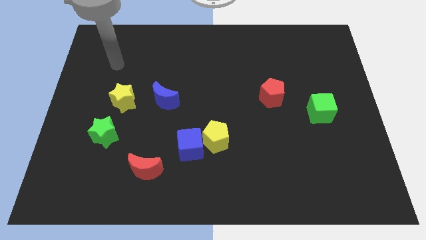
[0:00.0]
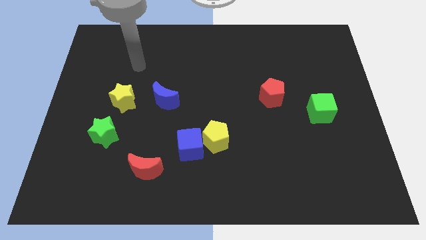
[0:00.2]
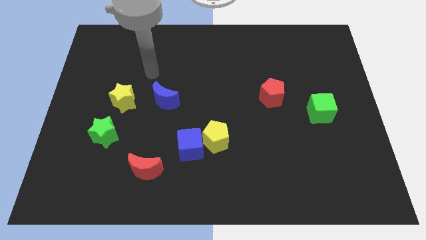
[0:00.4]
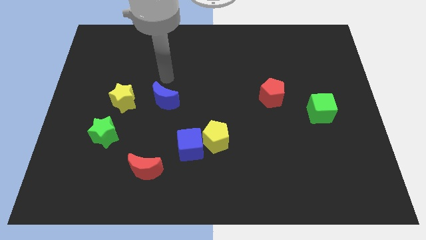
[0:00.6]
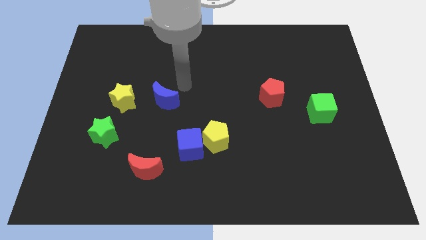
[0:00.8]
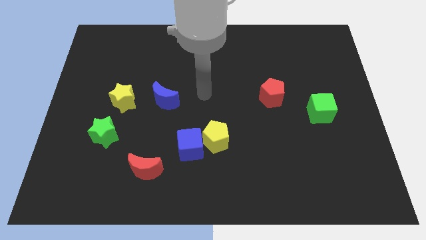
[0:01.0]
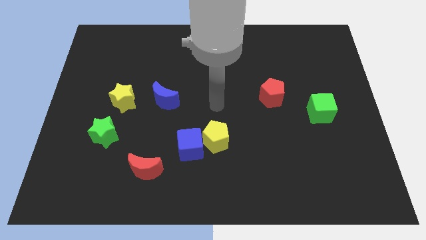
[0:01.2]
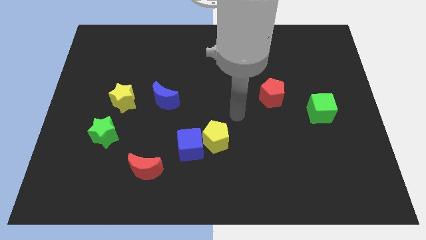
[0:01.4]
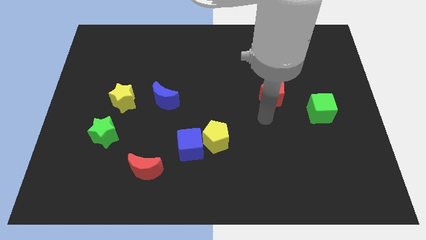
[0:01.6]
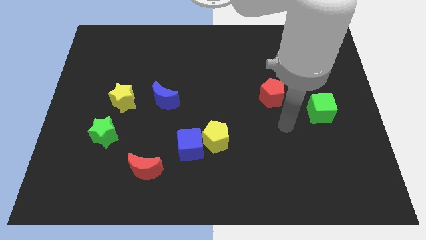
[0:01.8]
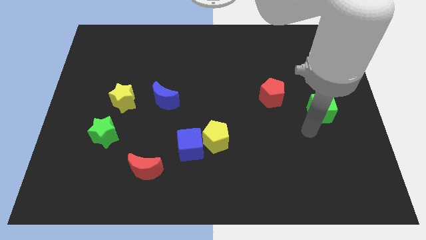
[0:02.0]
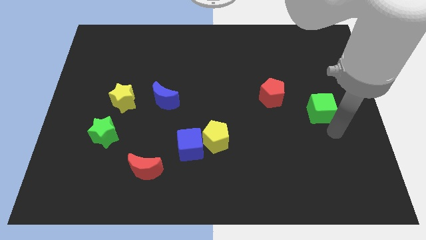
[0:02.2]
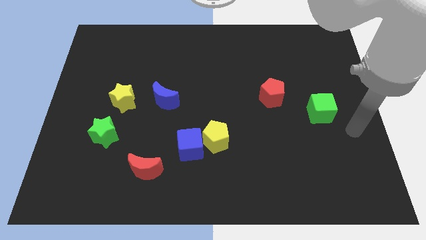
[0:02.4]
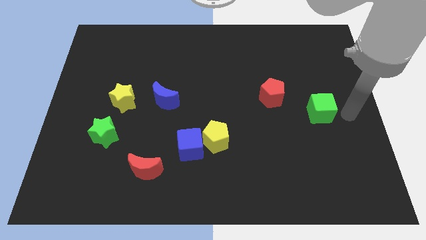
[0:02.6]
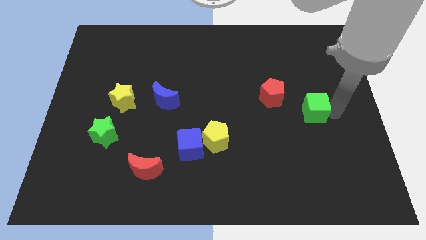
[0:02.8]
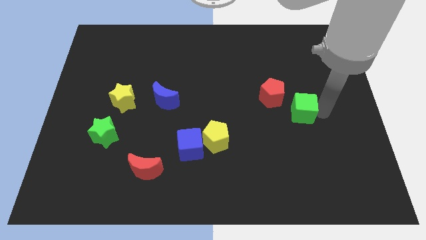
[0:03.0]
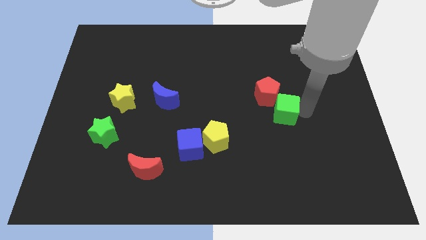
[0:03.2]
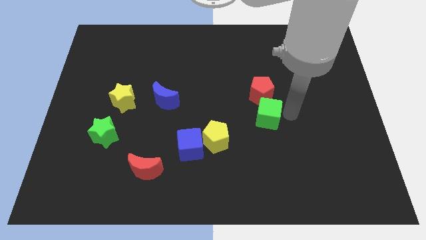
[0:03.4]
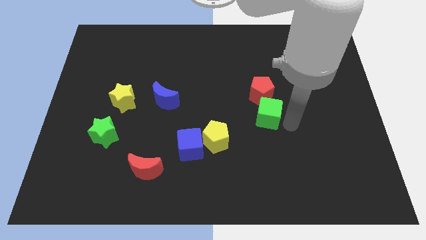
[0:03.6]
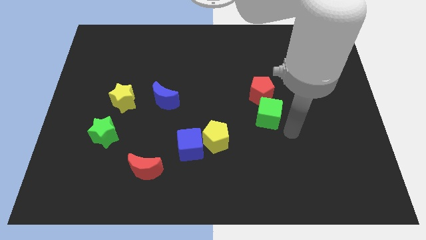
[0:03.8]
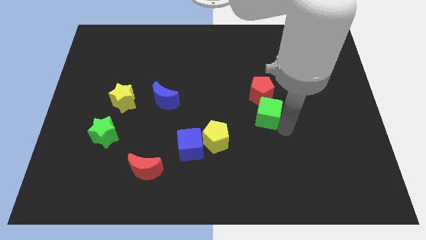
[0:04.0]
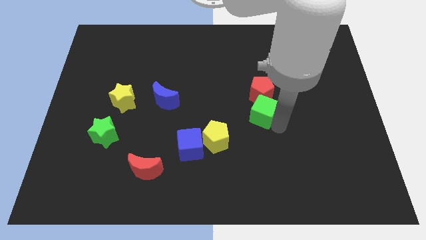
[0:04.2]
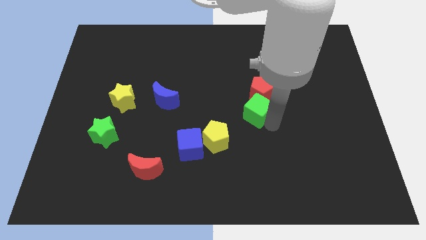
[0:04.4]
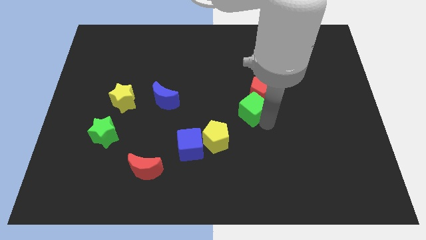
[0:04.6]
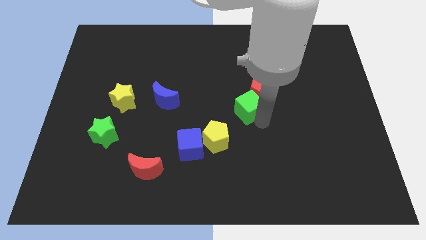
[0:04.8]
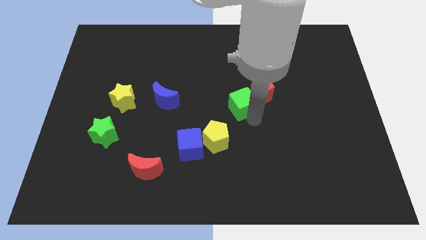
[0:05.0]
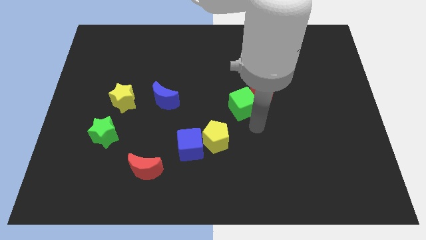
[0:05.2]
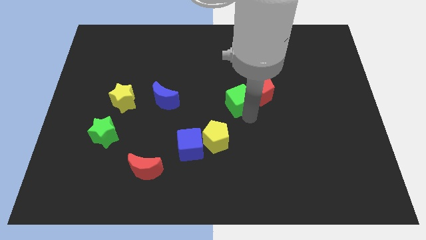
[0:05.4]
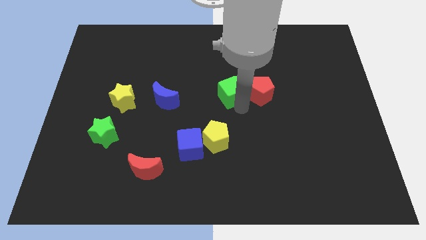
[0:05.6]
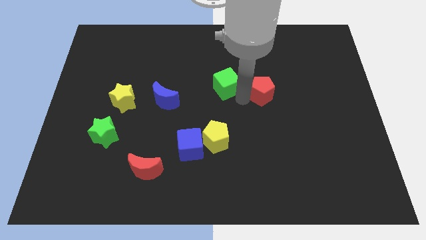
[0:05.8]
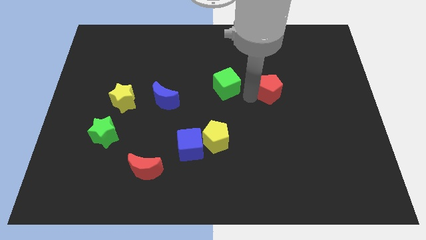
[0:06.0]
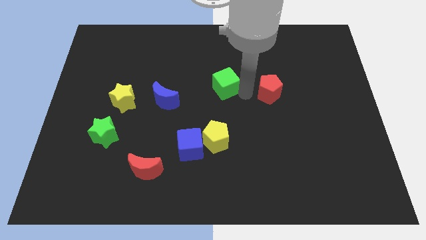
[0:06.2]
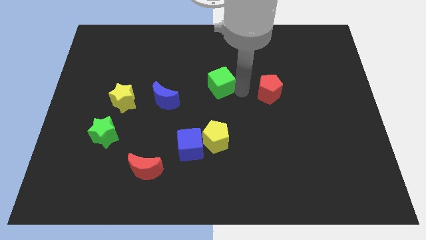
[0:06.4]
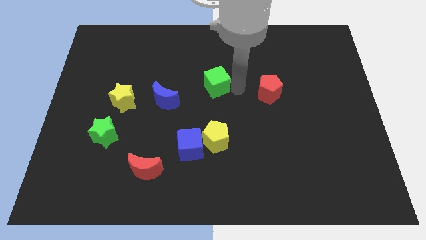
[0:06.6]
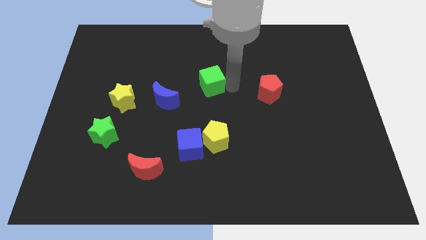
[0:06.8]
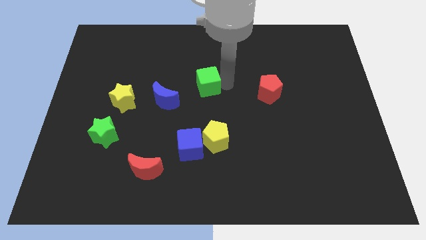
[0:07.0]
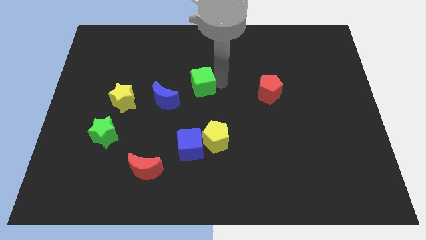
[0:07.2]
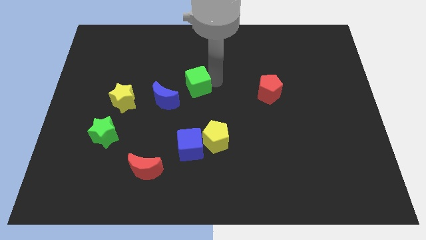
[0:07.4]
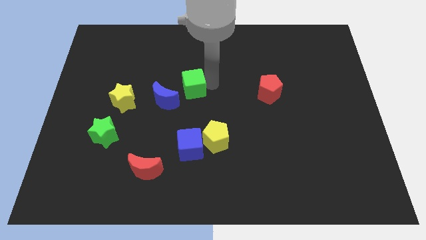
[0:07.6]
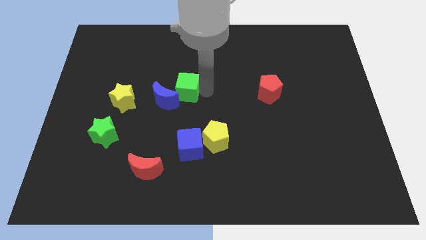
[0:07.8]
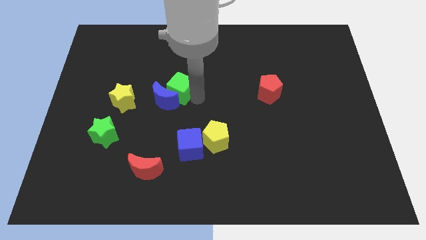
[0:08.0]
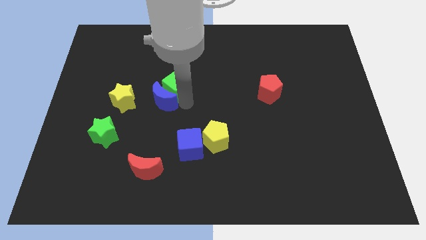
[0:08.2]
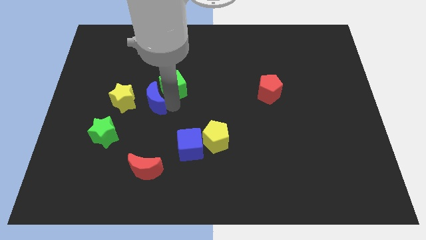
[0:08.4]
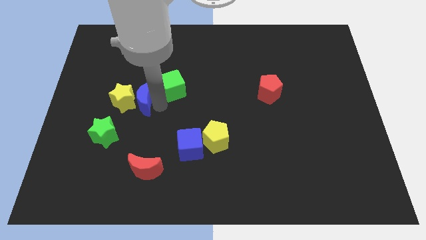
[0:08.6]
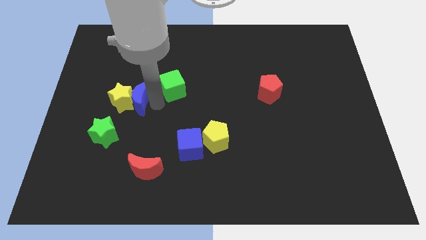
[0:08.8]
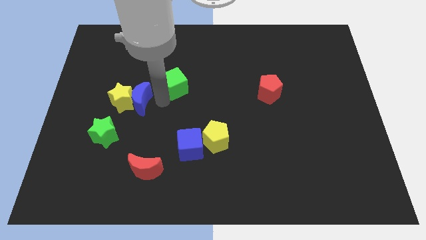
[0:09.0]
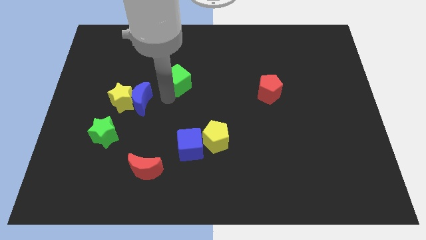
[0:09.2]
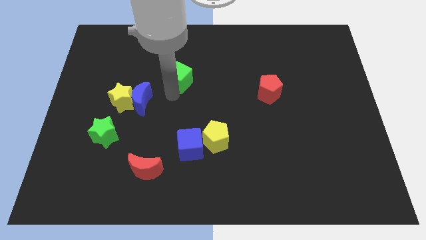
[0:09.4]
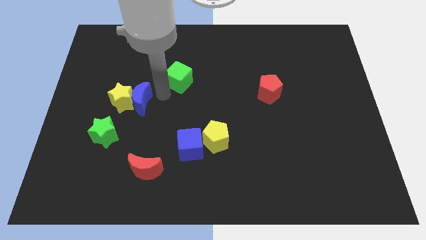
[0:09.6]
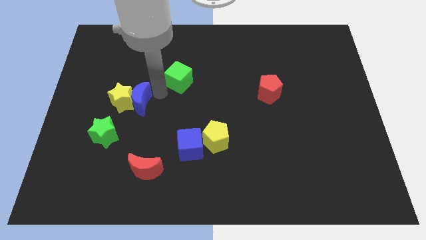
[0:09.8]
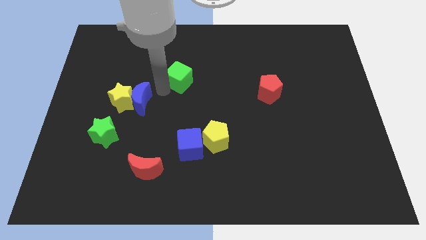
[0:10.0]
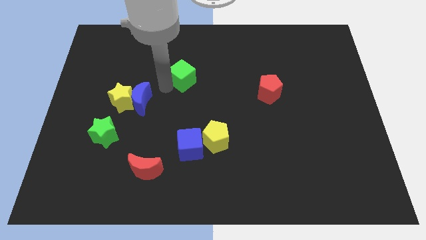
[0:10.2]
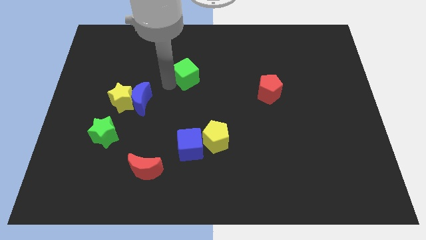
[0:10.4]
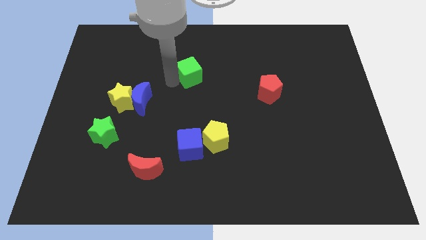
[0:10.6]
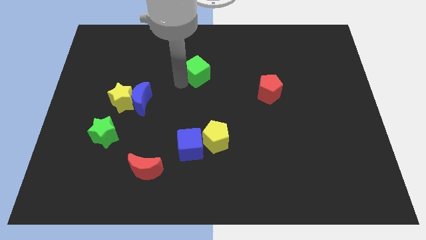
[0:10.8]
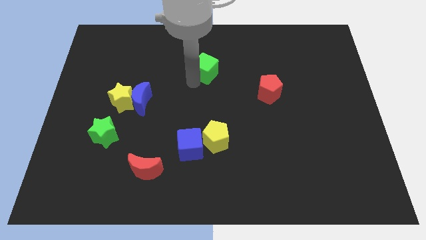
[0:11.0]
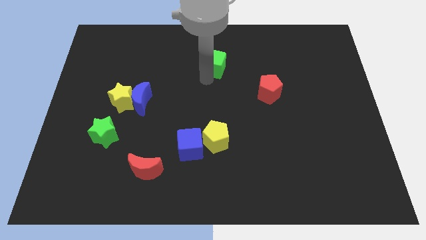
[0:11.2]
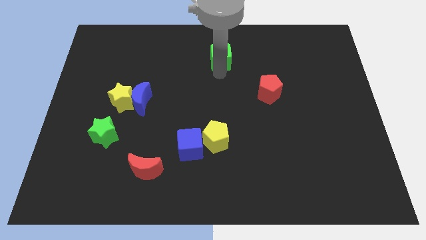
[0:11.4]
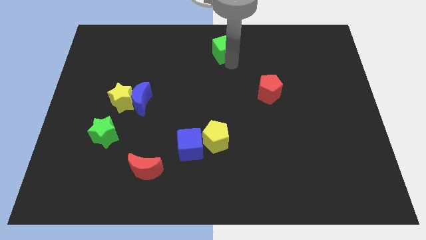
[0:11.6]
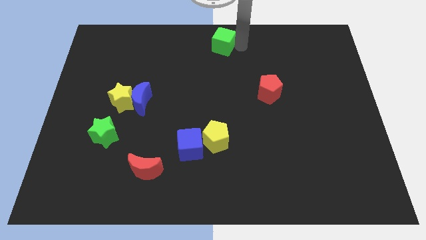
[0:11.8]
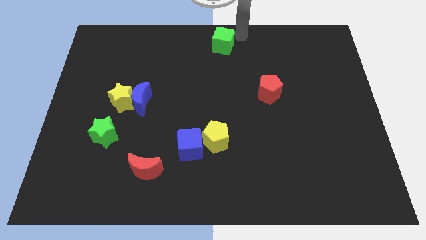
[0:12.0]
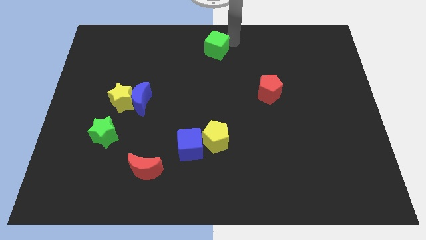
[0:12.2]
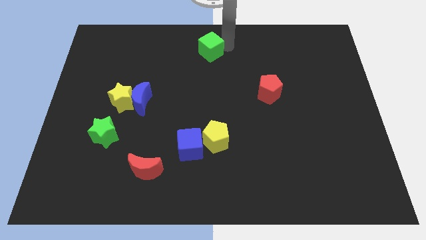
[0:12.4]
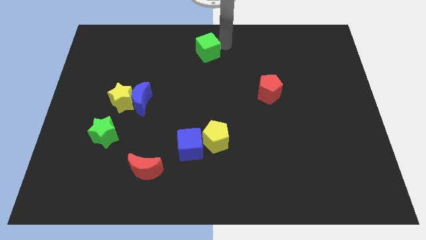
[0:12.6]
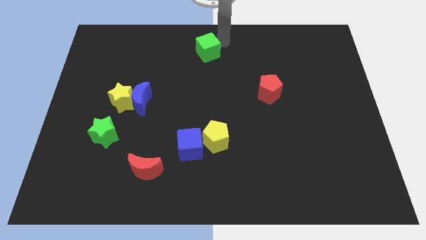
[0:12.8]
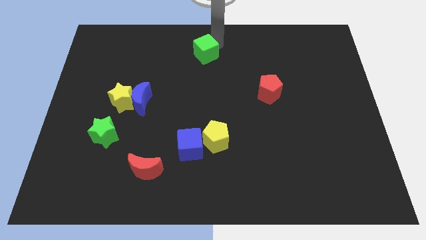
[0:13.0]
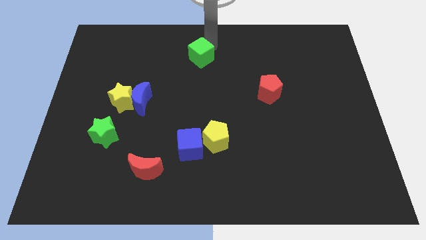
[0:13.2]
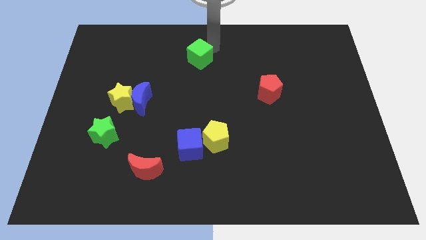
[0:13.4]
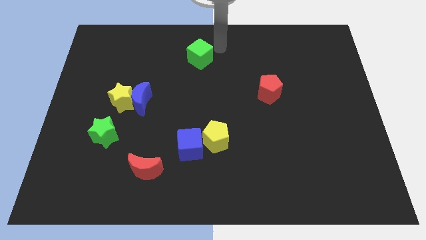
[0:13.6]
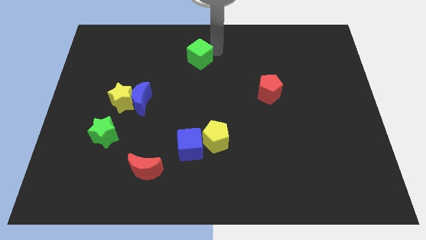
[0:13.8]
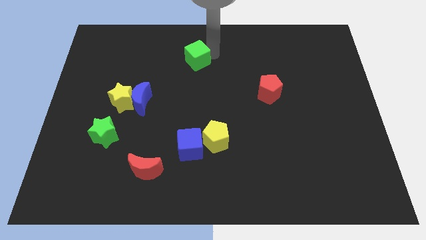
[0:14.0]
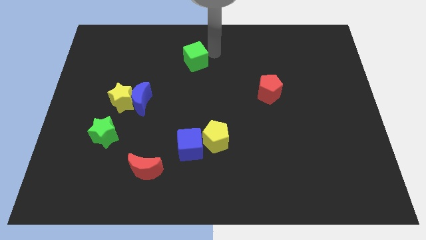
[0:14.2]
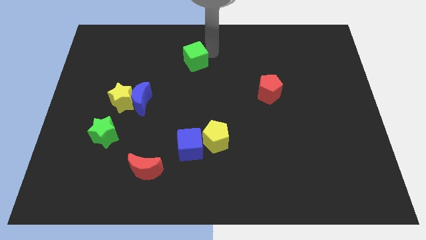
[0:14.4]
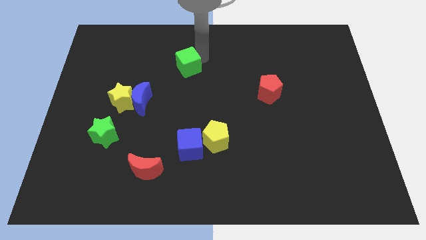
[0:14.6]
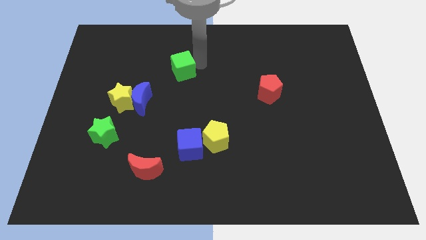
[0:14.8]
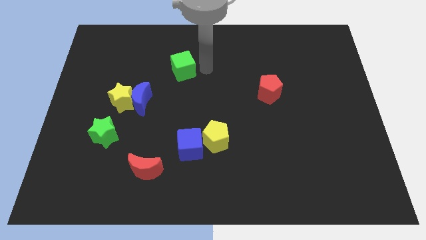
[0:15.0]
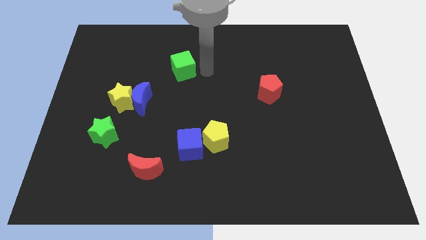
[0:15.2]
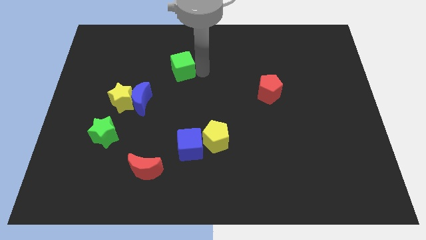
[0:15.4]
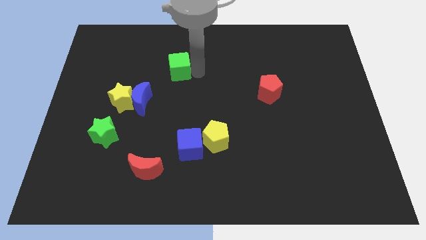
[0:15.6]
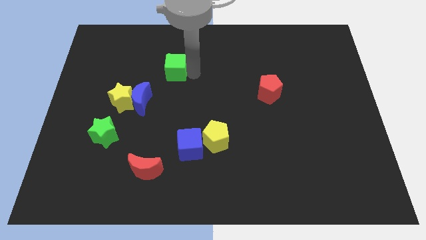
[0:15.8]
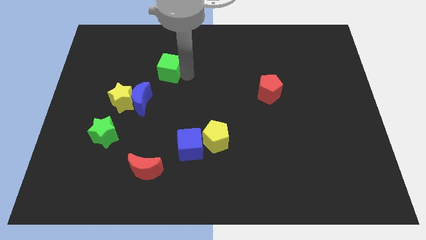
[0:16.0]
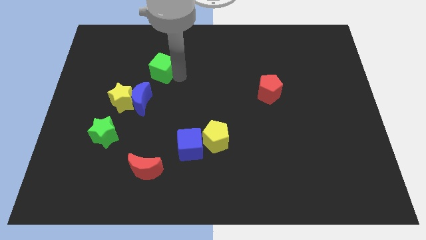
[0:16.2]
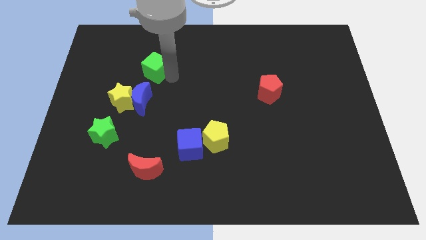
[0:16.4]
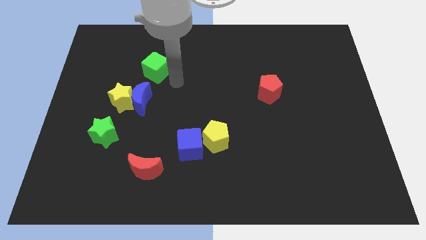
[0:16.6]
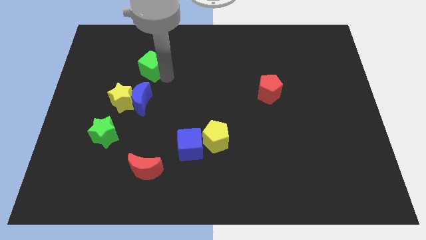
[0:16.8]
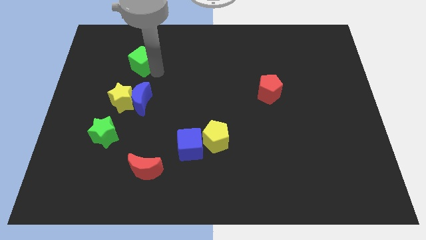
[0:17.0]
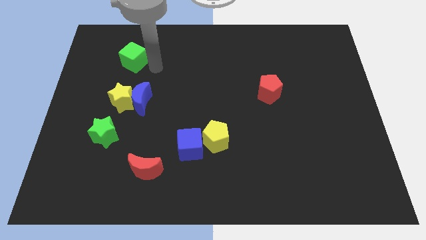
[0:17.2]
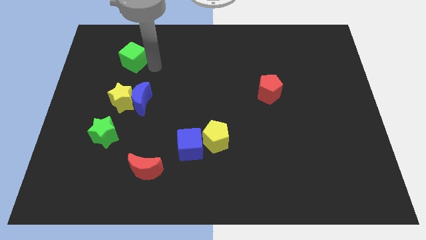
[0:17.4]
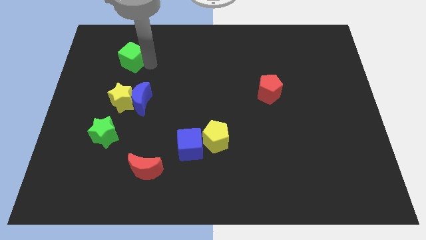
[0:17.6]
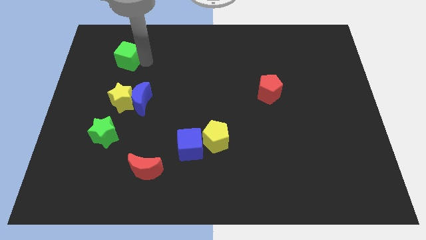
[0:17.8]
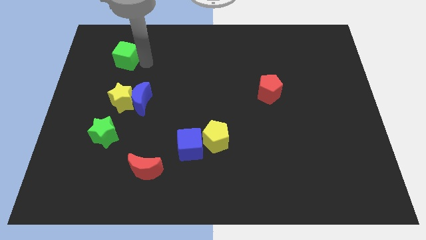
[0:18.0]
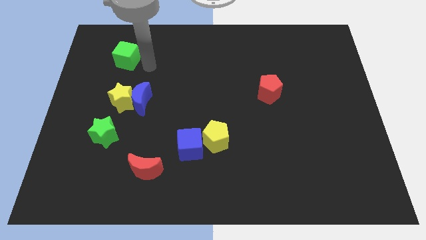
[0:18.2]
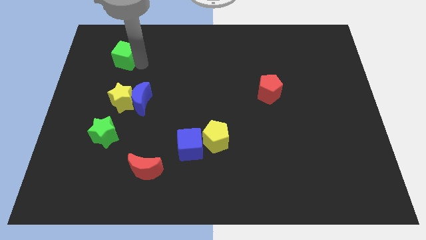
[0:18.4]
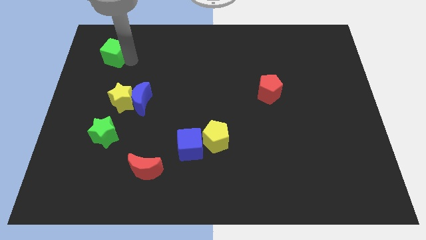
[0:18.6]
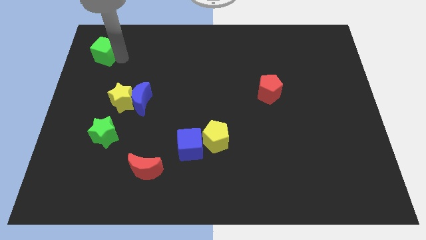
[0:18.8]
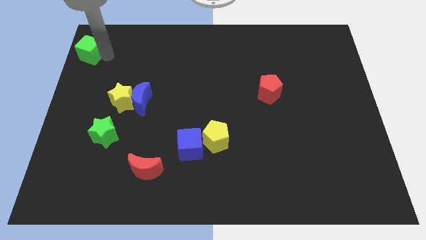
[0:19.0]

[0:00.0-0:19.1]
push the green cube to the top left of the board
